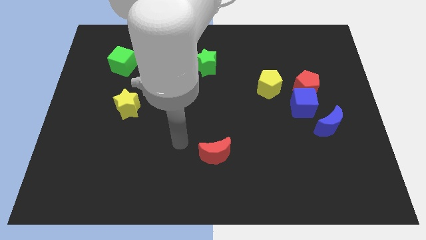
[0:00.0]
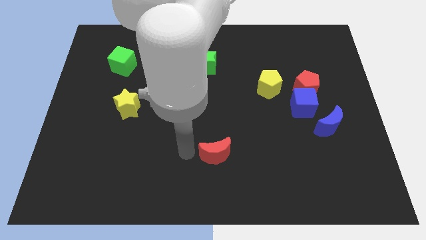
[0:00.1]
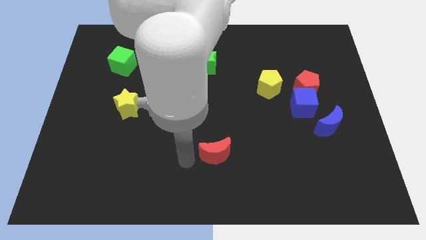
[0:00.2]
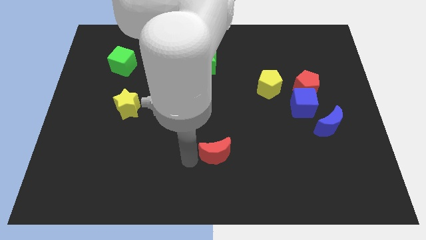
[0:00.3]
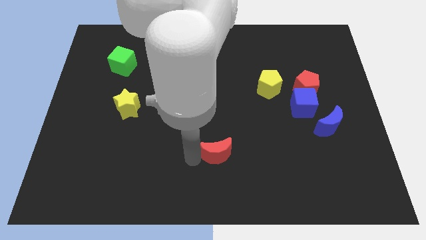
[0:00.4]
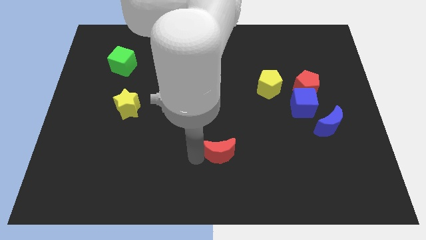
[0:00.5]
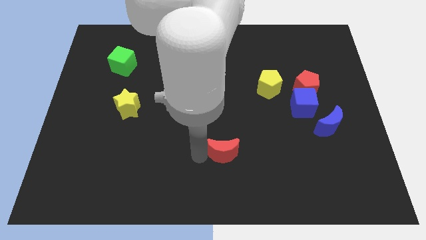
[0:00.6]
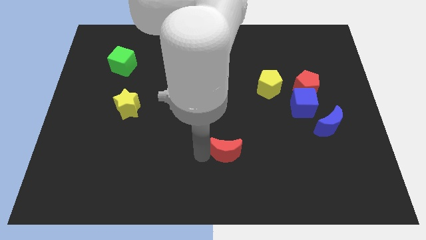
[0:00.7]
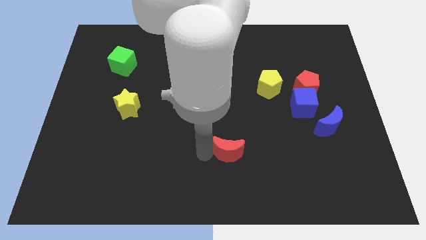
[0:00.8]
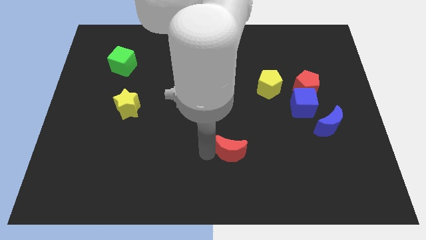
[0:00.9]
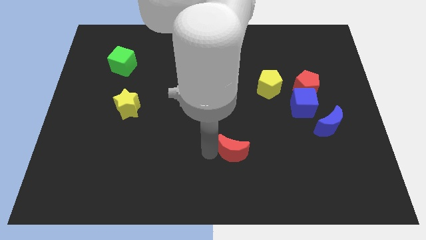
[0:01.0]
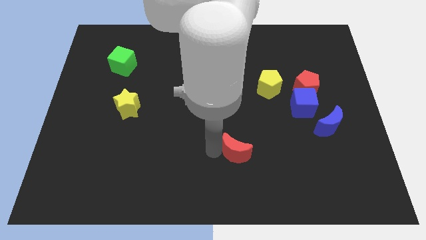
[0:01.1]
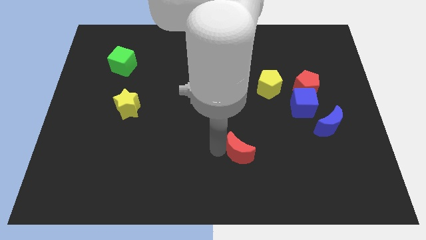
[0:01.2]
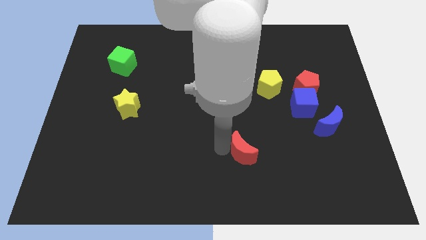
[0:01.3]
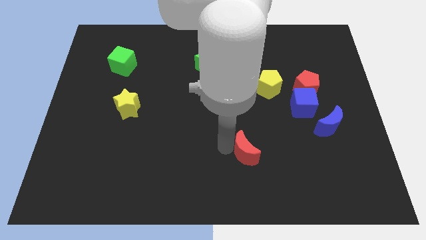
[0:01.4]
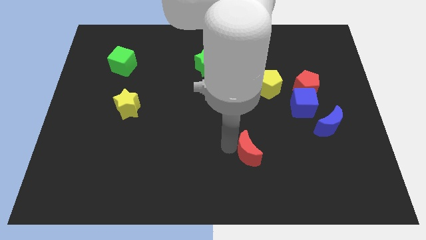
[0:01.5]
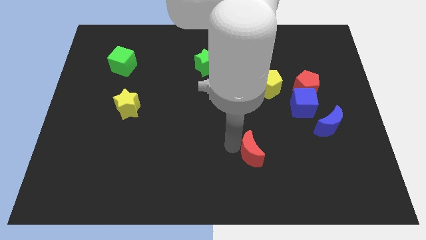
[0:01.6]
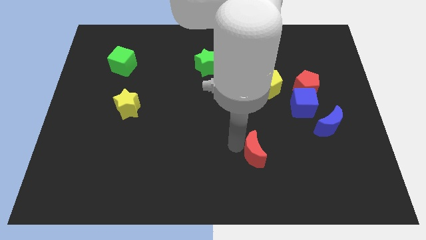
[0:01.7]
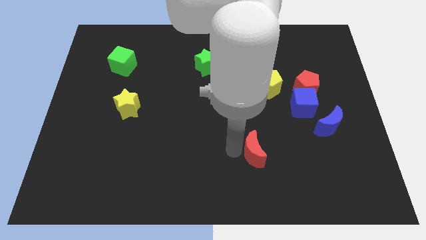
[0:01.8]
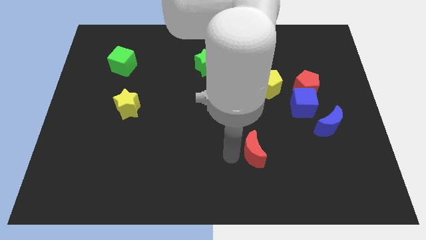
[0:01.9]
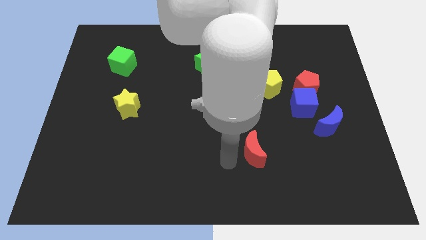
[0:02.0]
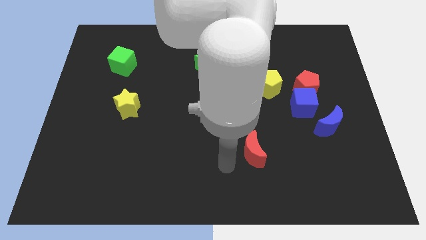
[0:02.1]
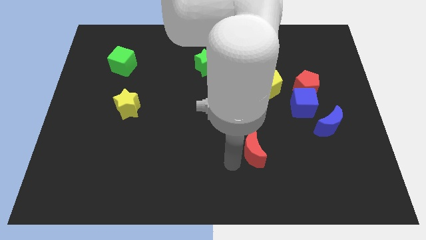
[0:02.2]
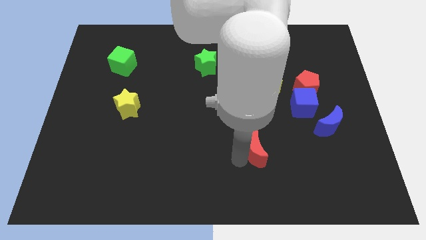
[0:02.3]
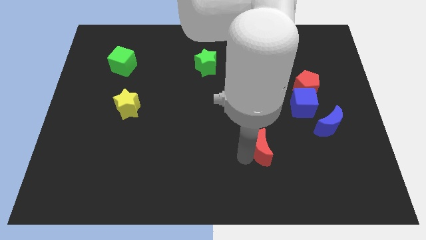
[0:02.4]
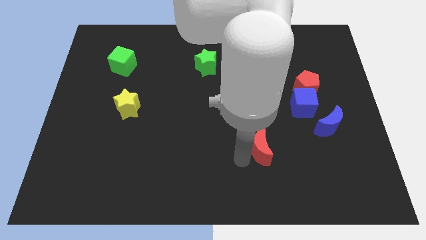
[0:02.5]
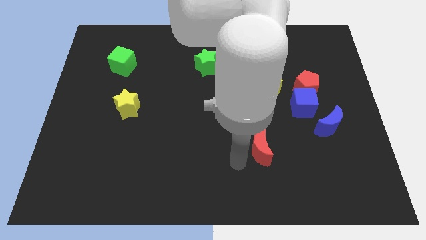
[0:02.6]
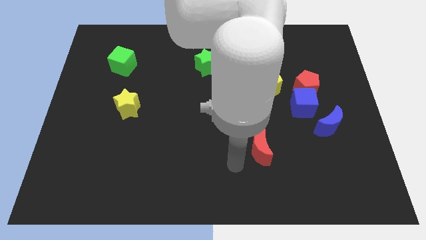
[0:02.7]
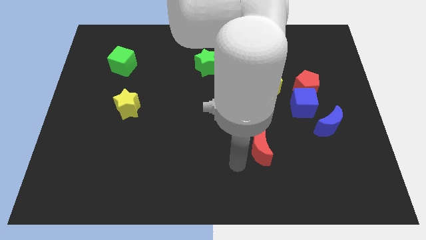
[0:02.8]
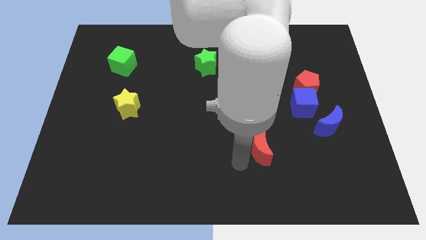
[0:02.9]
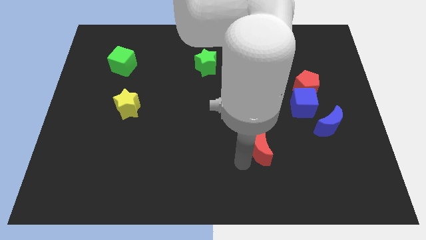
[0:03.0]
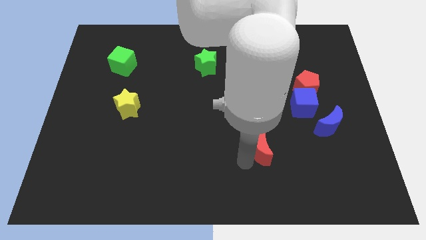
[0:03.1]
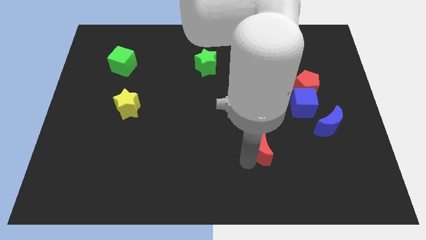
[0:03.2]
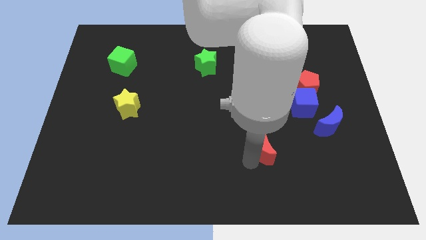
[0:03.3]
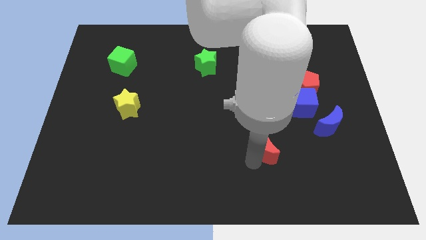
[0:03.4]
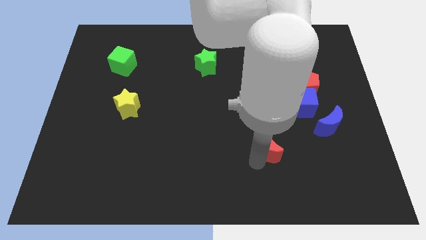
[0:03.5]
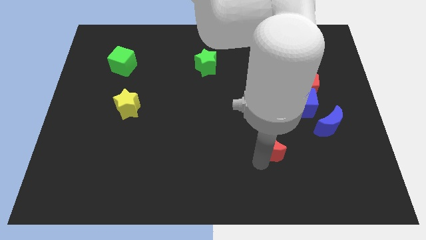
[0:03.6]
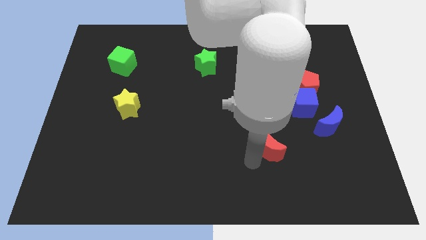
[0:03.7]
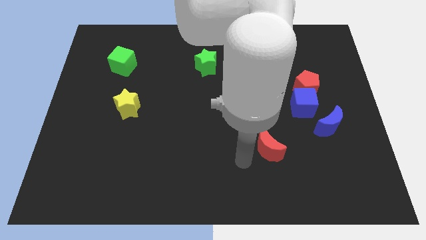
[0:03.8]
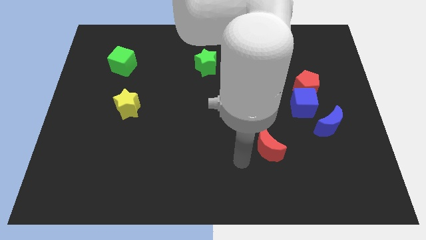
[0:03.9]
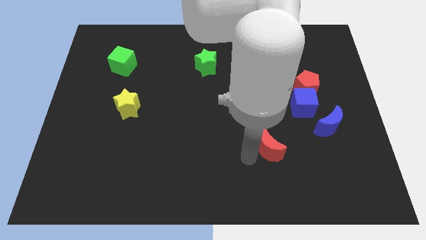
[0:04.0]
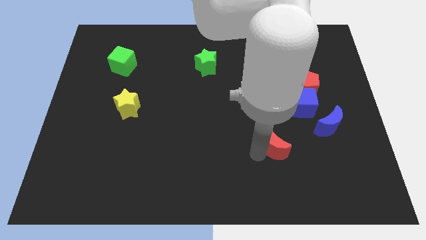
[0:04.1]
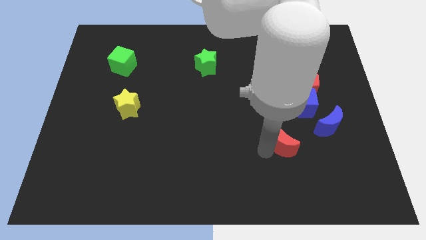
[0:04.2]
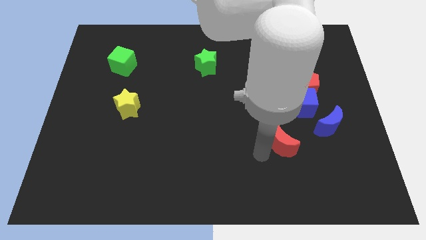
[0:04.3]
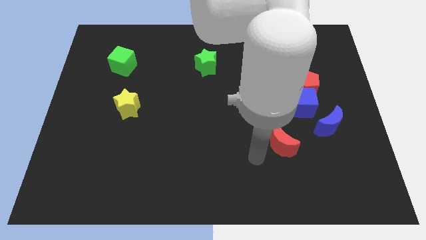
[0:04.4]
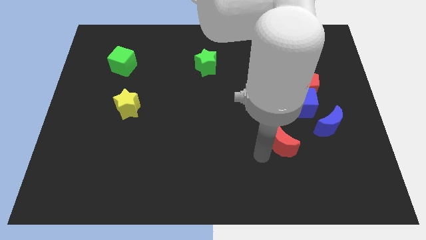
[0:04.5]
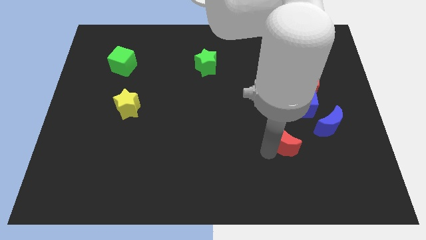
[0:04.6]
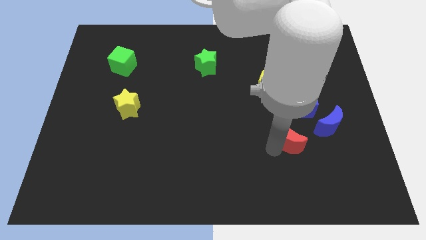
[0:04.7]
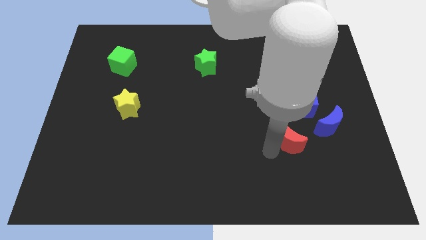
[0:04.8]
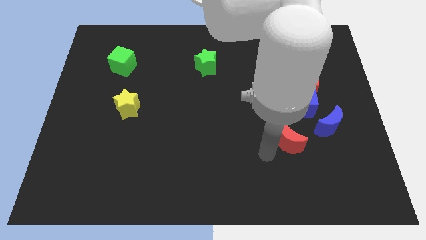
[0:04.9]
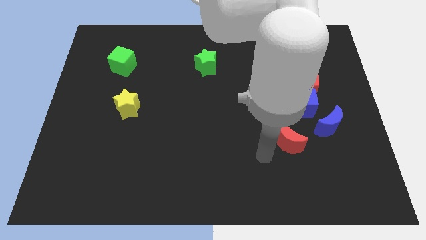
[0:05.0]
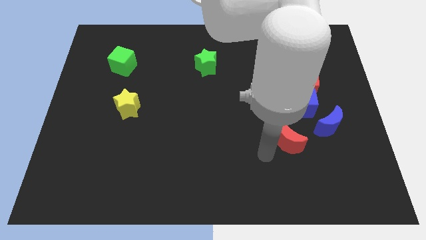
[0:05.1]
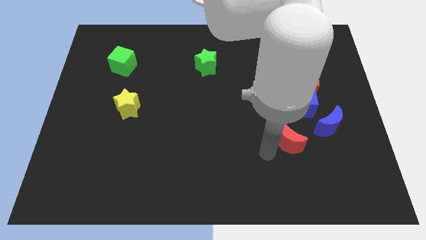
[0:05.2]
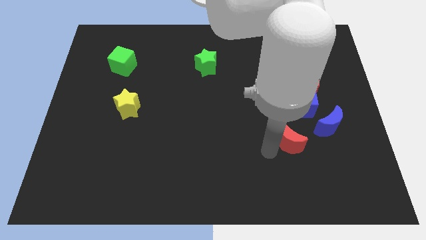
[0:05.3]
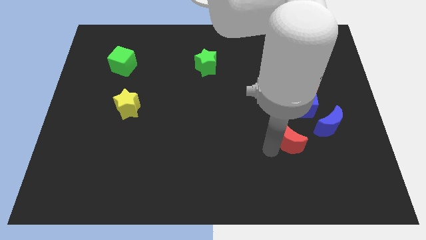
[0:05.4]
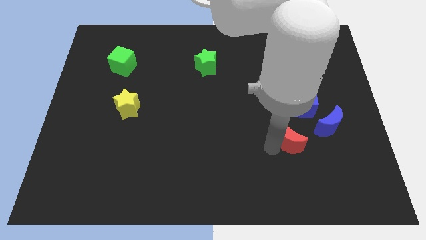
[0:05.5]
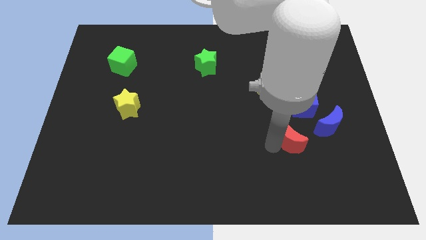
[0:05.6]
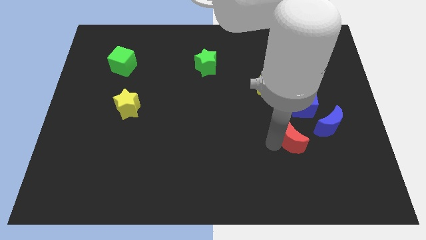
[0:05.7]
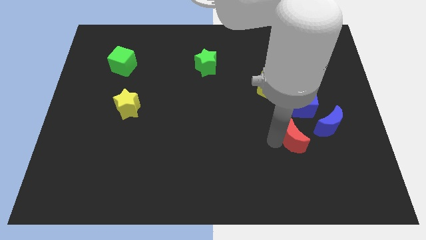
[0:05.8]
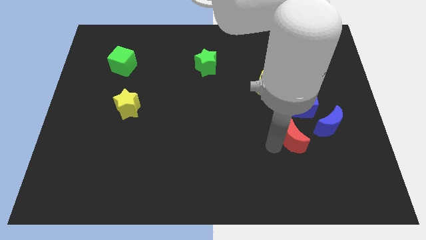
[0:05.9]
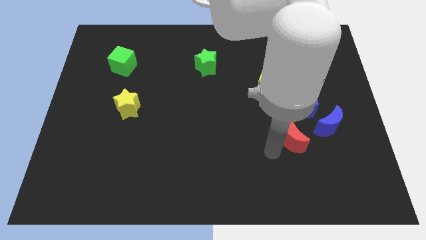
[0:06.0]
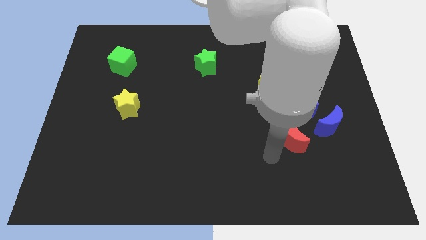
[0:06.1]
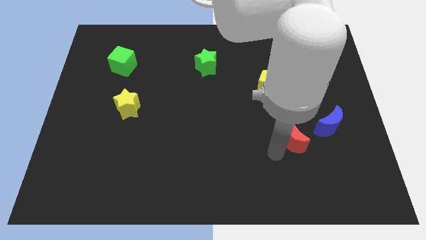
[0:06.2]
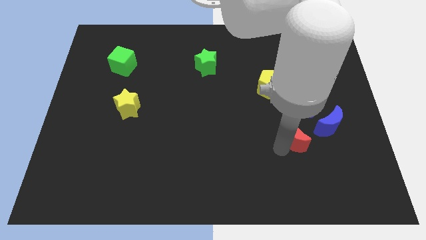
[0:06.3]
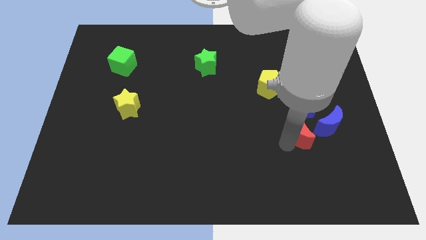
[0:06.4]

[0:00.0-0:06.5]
push the red moon to the bottom side of the red pentagon
